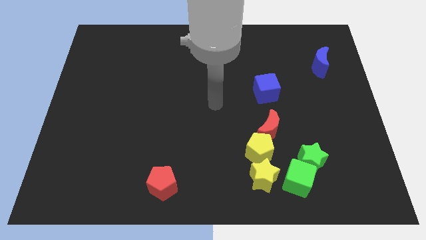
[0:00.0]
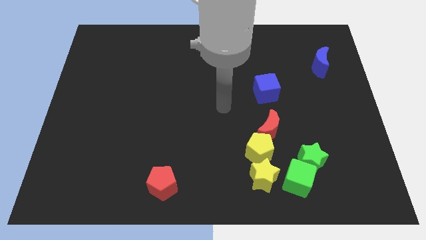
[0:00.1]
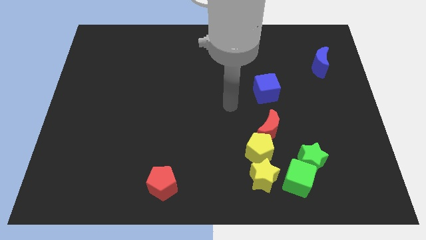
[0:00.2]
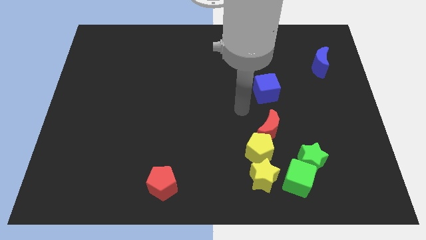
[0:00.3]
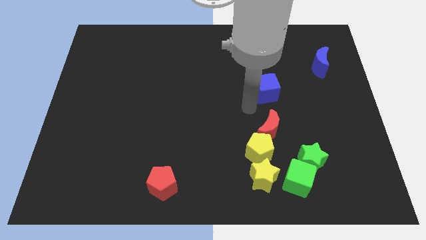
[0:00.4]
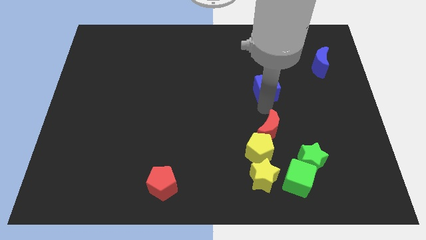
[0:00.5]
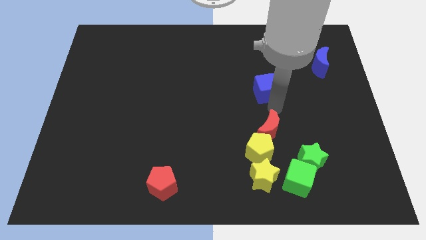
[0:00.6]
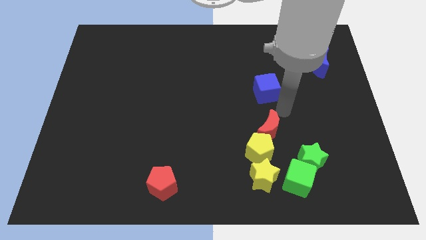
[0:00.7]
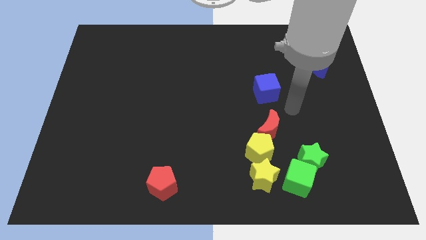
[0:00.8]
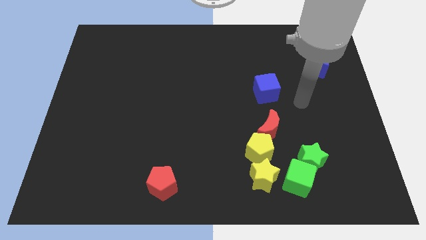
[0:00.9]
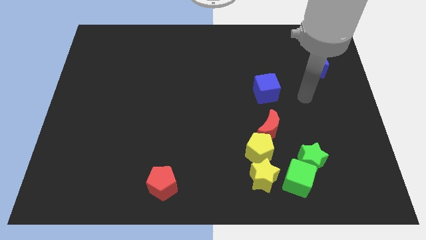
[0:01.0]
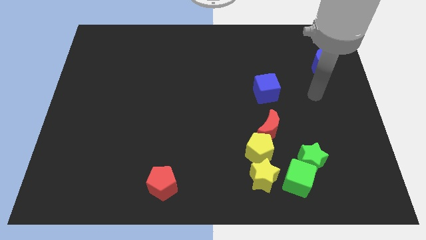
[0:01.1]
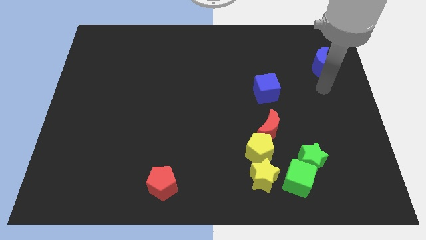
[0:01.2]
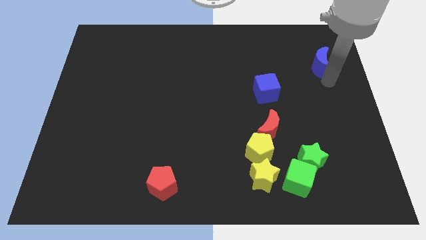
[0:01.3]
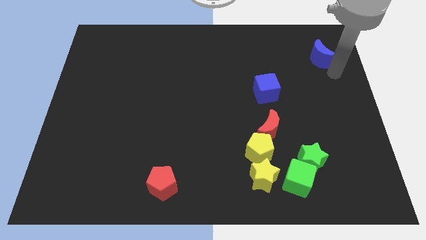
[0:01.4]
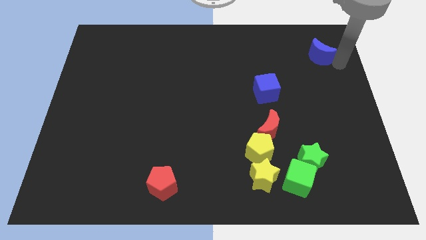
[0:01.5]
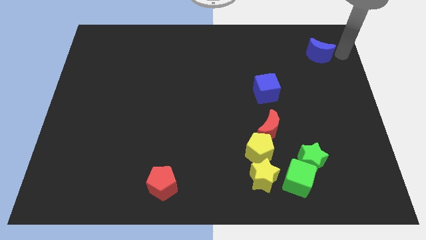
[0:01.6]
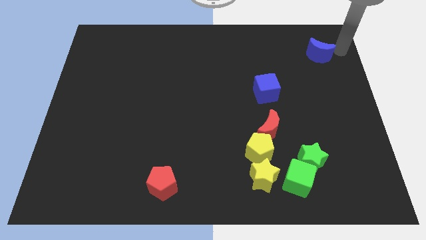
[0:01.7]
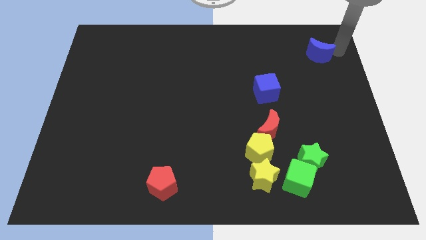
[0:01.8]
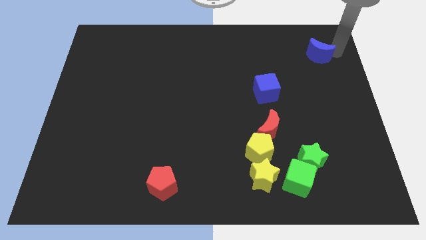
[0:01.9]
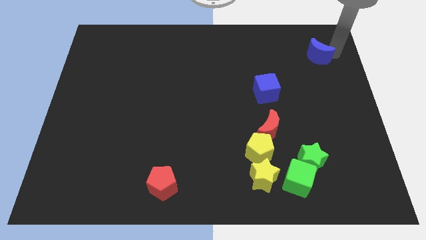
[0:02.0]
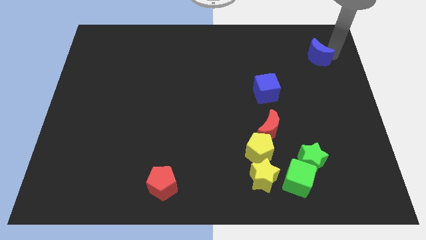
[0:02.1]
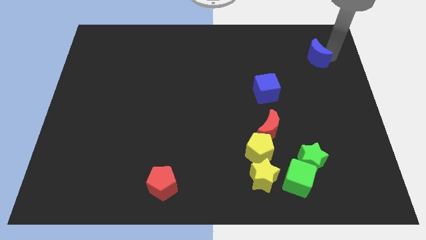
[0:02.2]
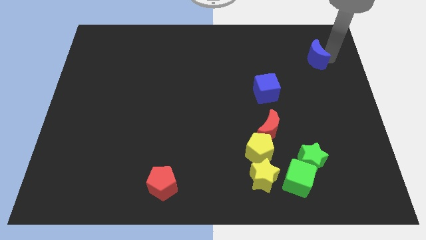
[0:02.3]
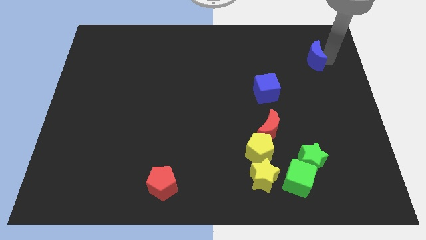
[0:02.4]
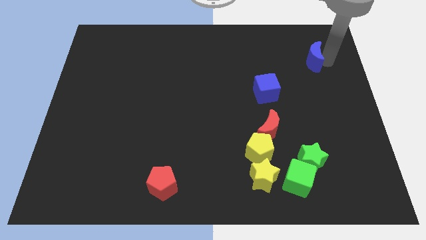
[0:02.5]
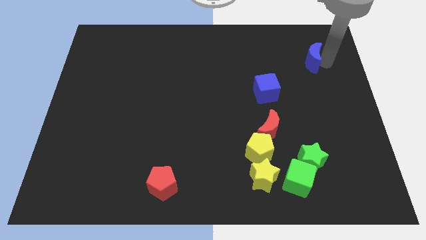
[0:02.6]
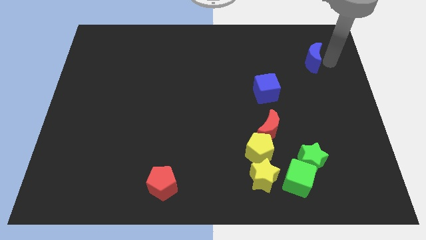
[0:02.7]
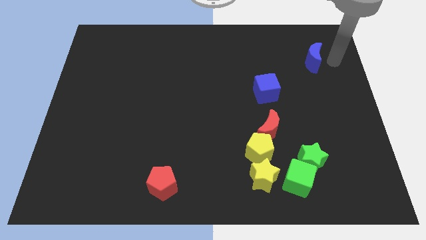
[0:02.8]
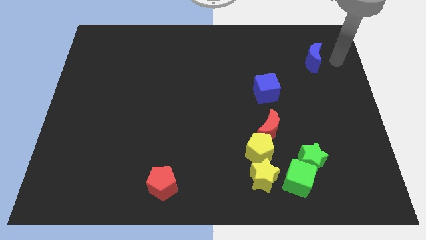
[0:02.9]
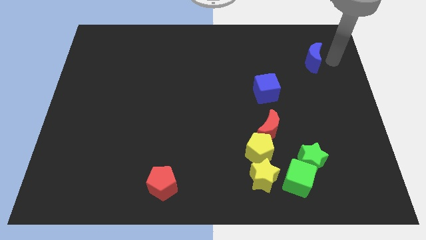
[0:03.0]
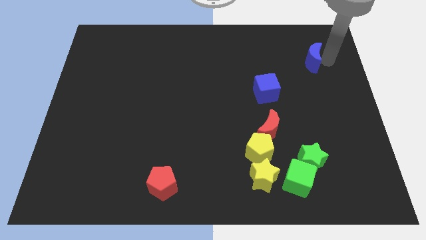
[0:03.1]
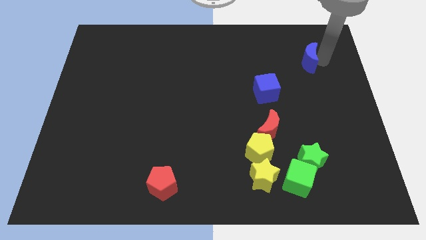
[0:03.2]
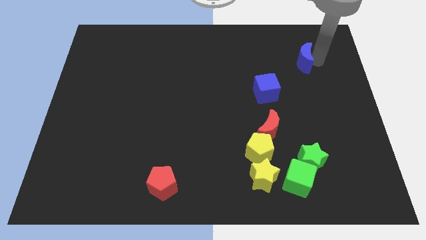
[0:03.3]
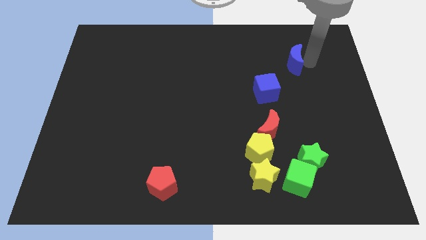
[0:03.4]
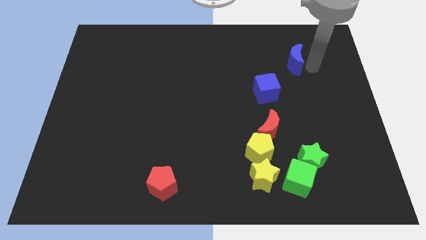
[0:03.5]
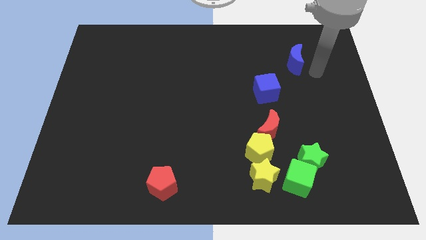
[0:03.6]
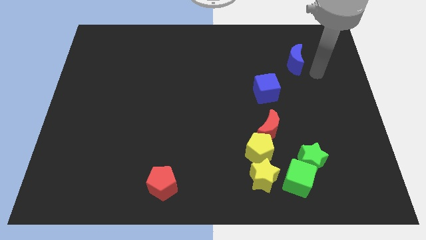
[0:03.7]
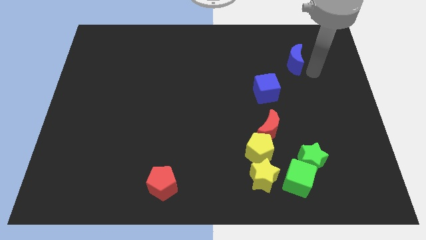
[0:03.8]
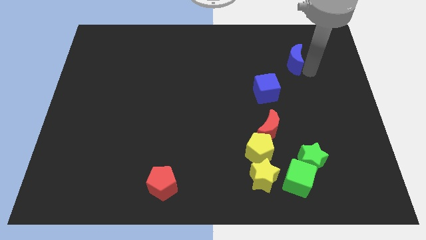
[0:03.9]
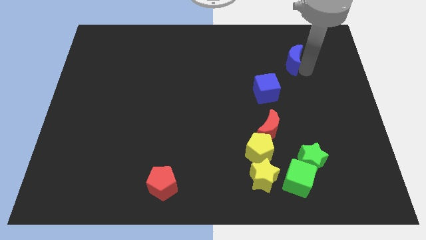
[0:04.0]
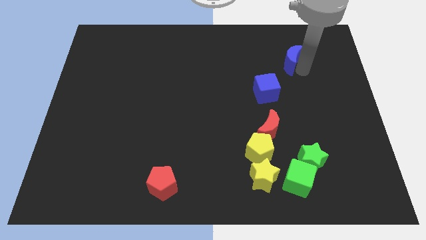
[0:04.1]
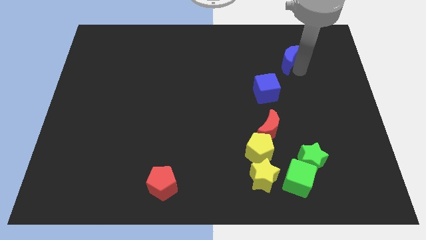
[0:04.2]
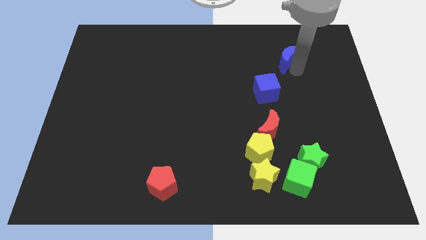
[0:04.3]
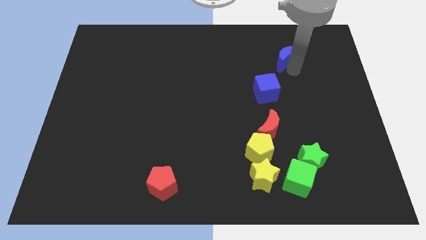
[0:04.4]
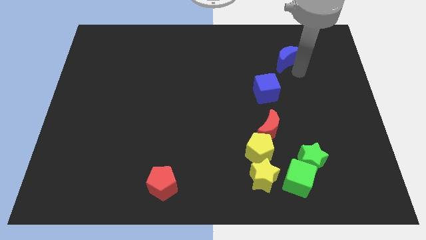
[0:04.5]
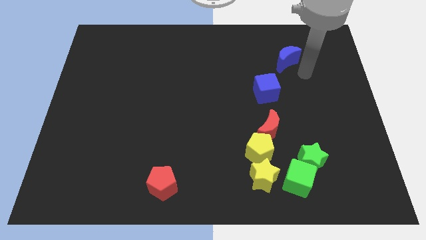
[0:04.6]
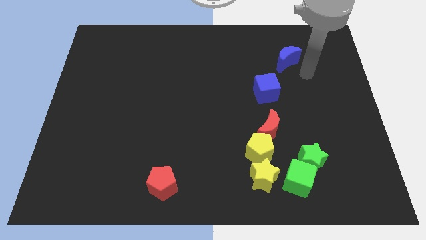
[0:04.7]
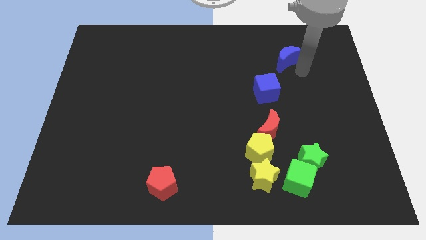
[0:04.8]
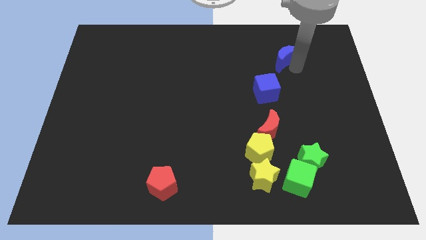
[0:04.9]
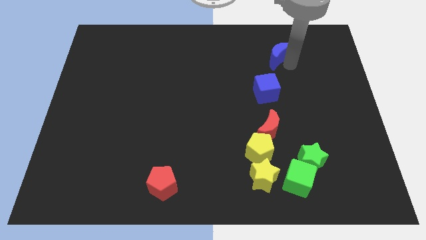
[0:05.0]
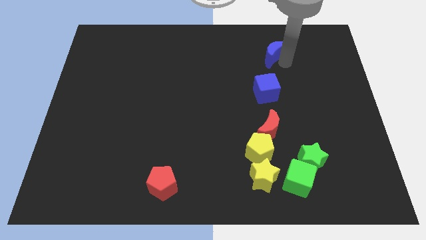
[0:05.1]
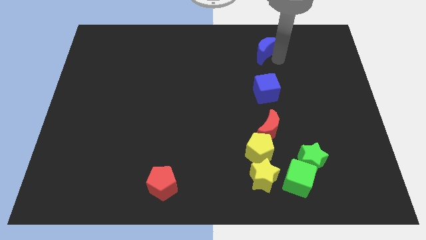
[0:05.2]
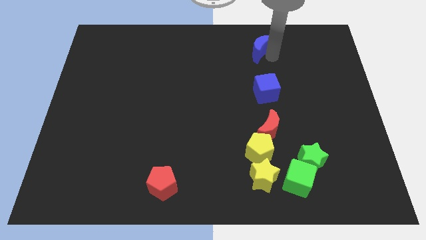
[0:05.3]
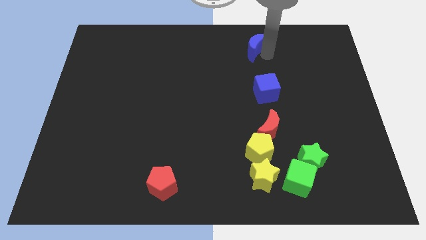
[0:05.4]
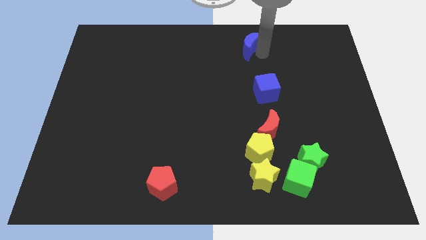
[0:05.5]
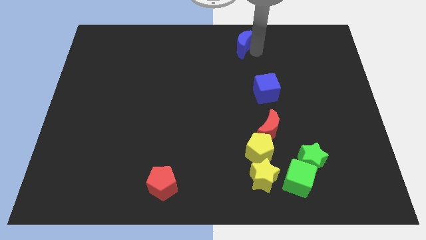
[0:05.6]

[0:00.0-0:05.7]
put the blue moon to the top side
